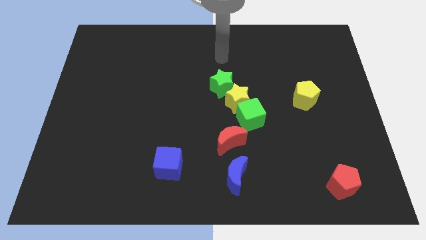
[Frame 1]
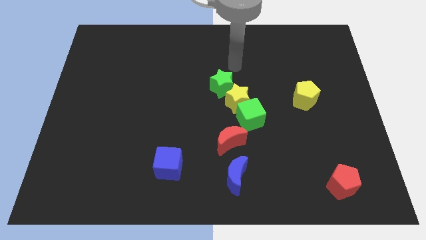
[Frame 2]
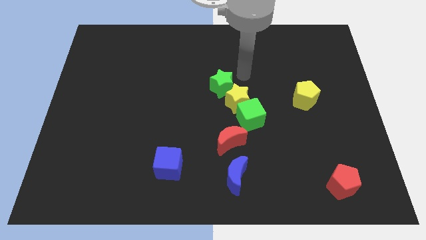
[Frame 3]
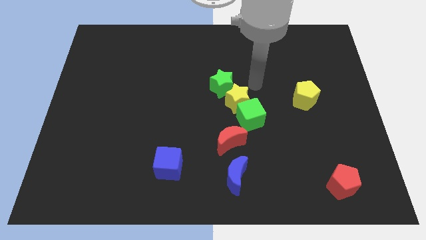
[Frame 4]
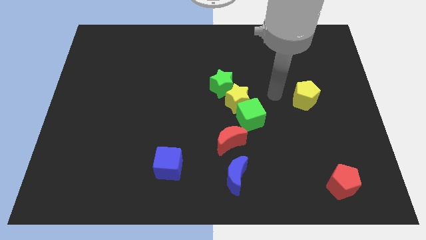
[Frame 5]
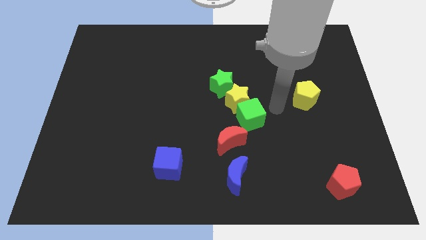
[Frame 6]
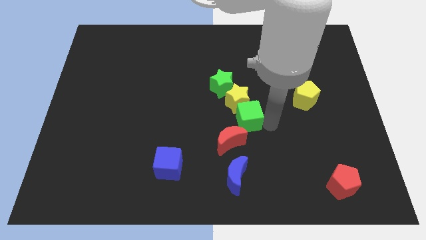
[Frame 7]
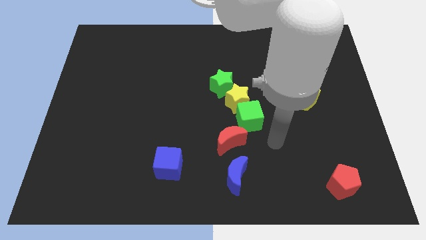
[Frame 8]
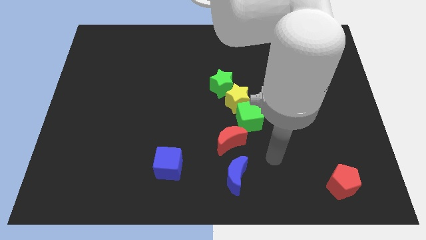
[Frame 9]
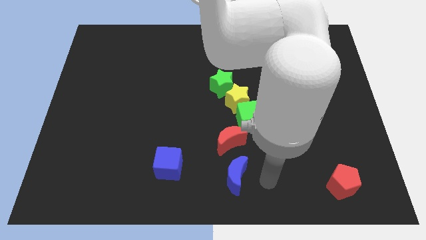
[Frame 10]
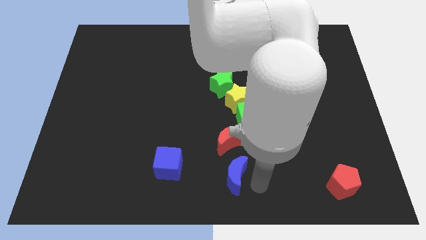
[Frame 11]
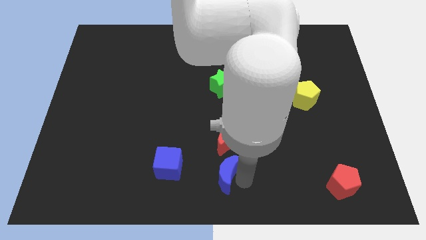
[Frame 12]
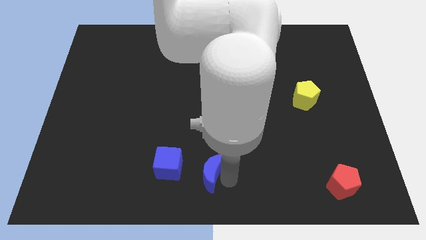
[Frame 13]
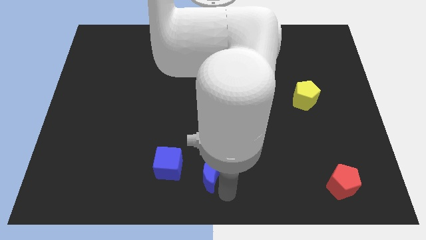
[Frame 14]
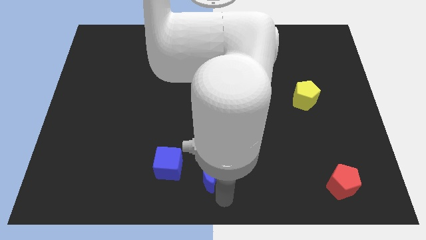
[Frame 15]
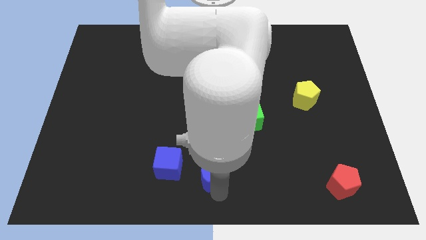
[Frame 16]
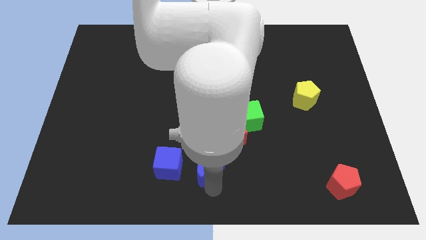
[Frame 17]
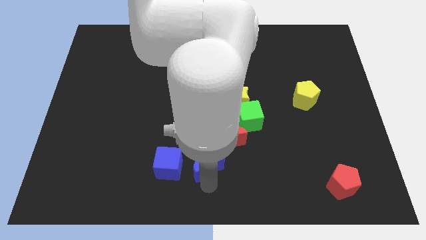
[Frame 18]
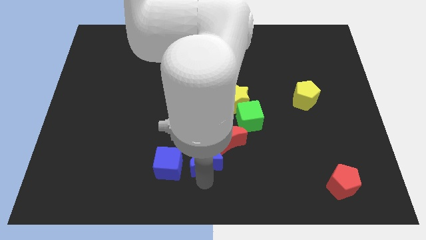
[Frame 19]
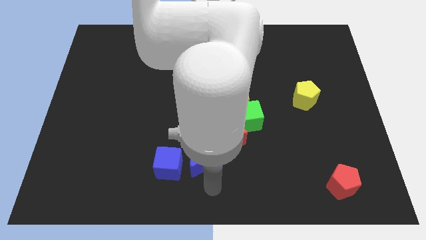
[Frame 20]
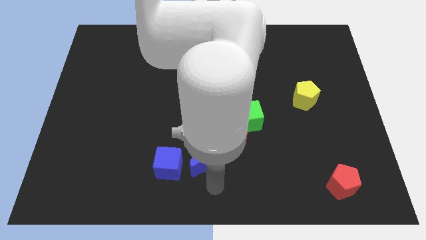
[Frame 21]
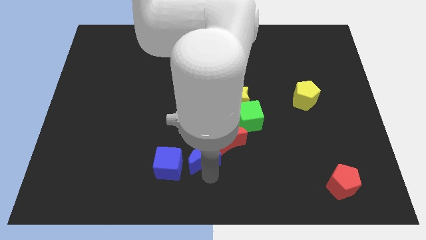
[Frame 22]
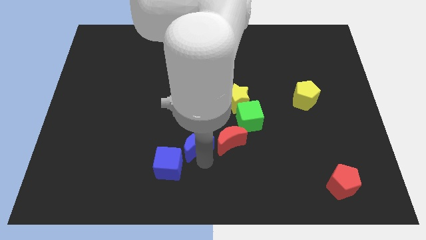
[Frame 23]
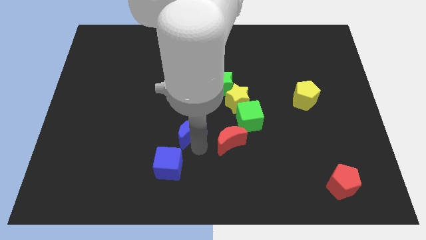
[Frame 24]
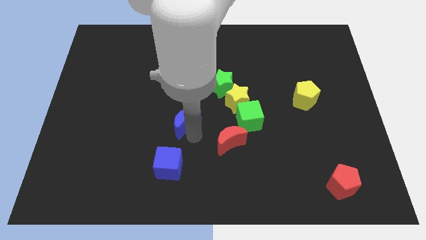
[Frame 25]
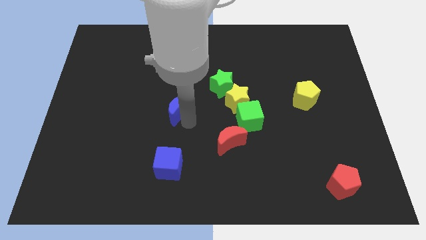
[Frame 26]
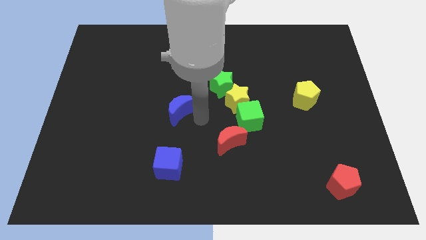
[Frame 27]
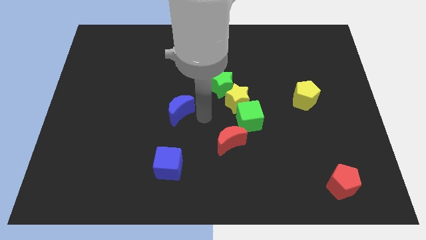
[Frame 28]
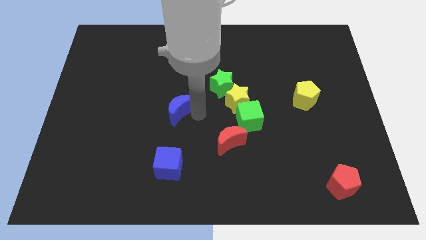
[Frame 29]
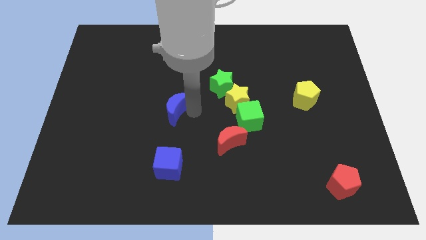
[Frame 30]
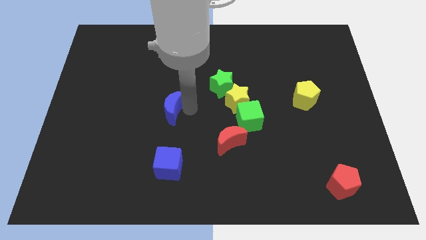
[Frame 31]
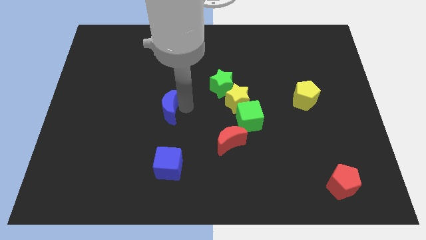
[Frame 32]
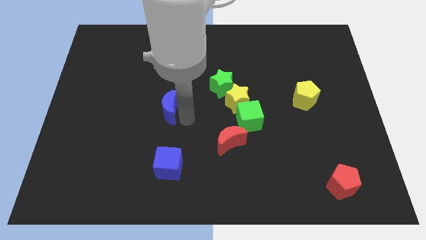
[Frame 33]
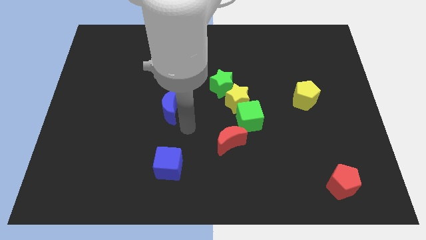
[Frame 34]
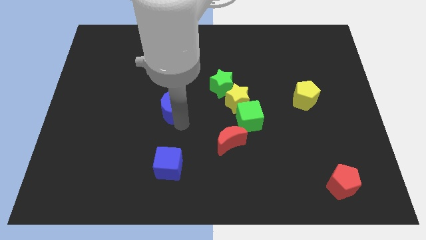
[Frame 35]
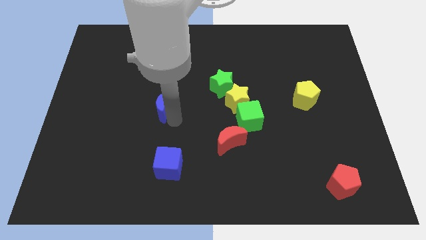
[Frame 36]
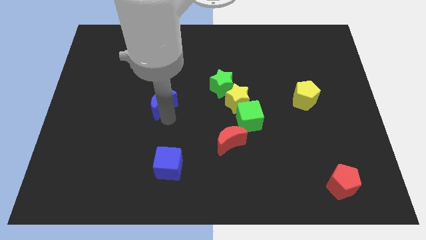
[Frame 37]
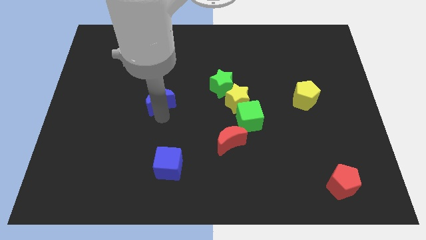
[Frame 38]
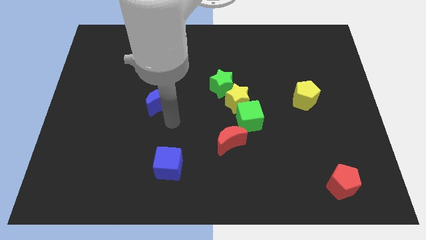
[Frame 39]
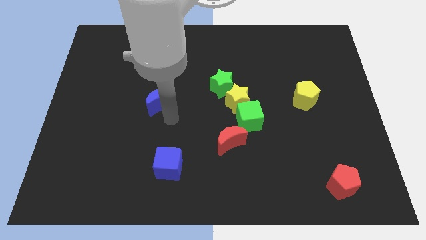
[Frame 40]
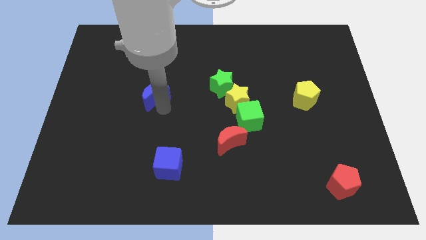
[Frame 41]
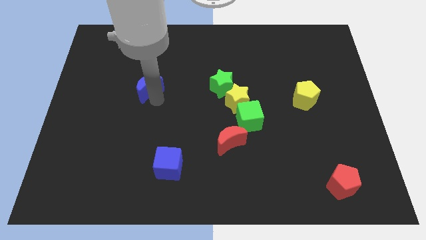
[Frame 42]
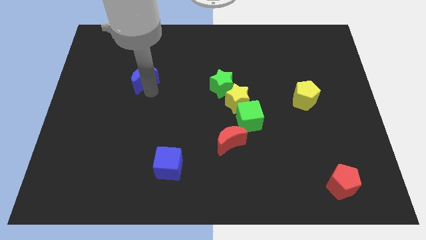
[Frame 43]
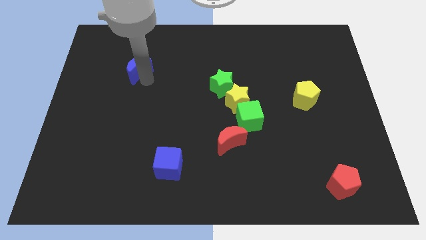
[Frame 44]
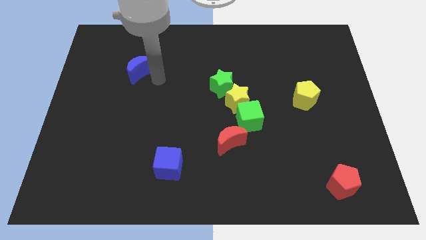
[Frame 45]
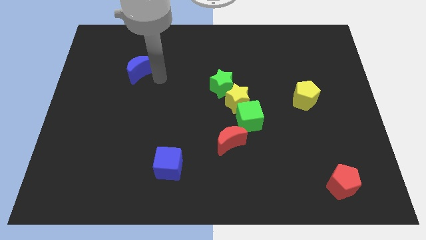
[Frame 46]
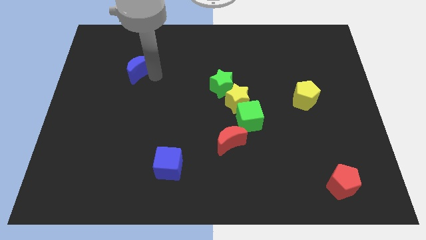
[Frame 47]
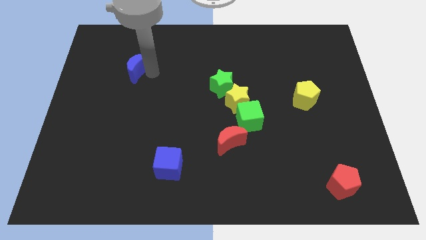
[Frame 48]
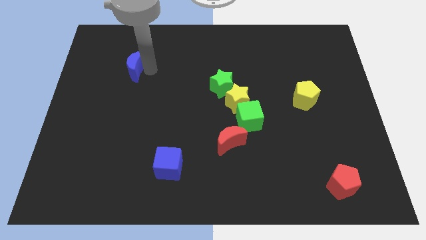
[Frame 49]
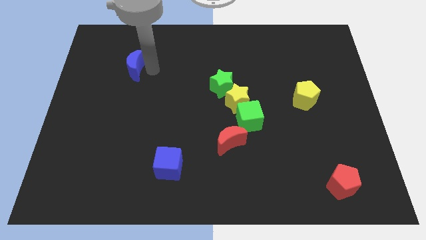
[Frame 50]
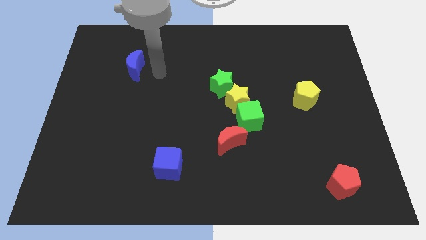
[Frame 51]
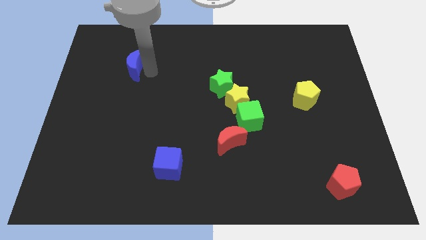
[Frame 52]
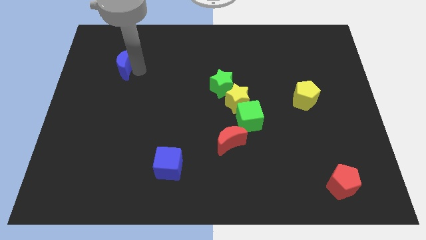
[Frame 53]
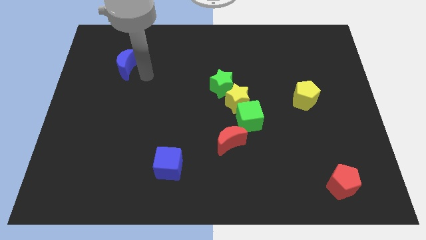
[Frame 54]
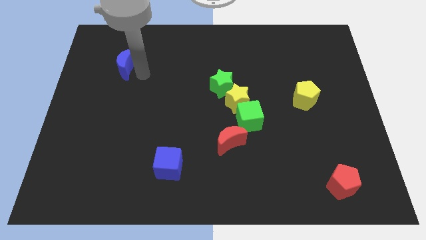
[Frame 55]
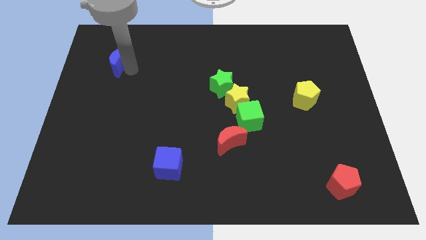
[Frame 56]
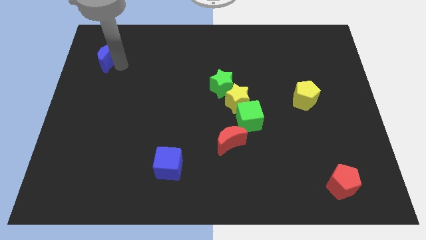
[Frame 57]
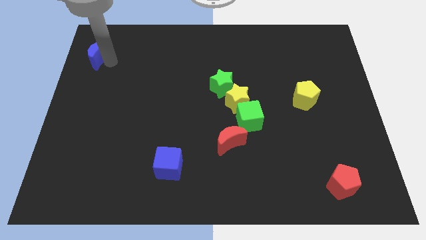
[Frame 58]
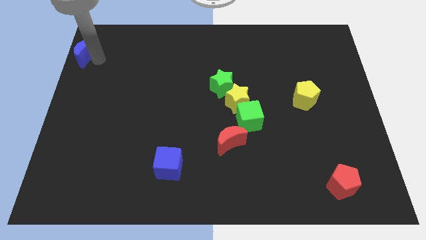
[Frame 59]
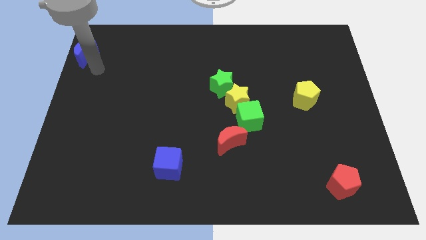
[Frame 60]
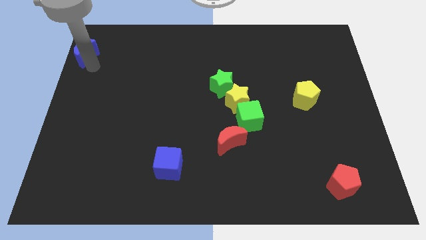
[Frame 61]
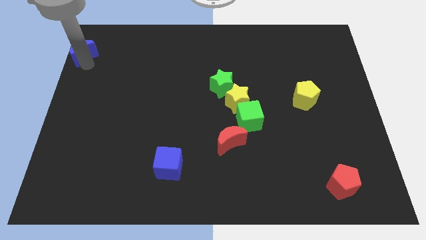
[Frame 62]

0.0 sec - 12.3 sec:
put the blue moon to the top left of the board
